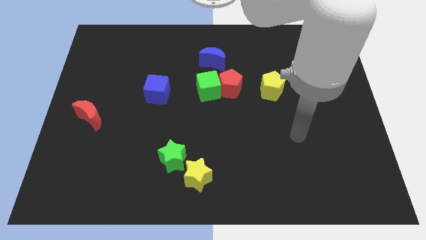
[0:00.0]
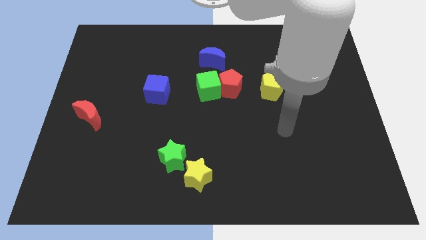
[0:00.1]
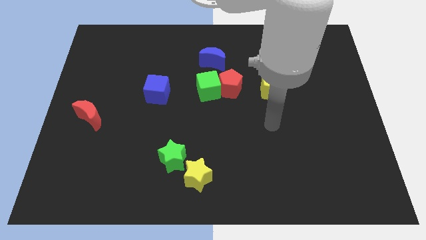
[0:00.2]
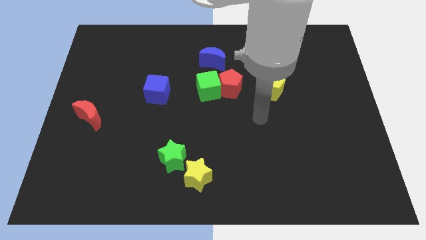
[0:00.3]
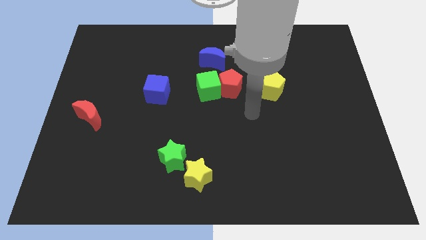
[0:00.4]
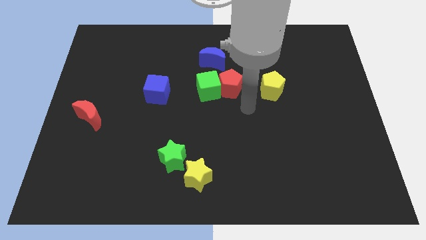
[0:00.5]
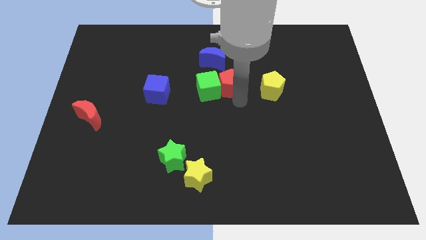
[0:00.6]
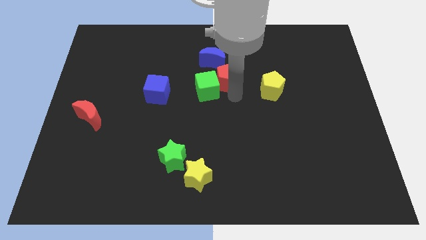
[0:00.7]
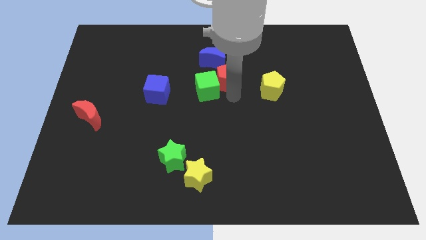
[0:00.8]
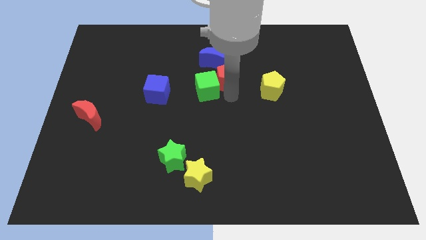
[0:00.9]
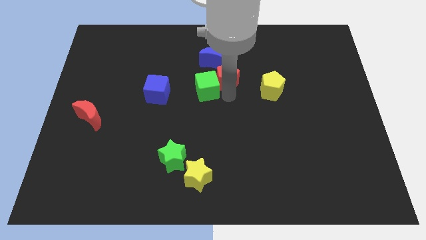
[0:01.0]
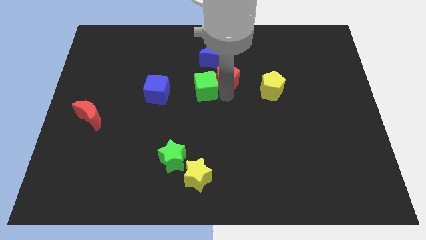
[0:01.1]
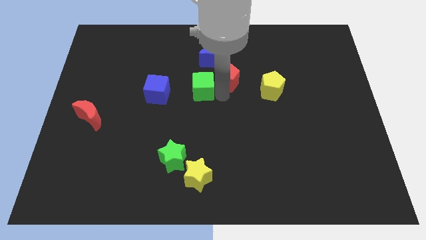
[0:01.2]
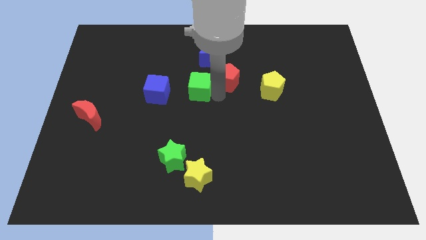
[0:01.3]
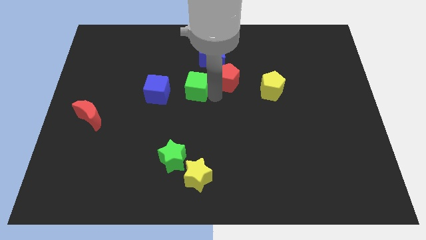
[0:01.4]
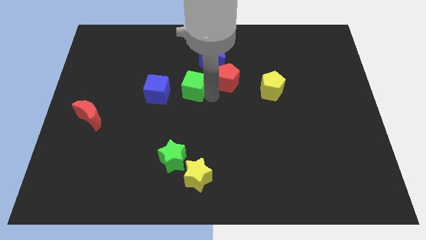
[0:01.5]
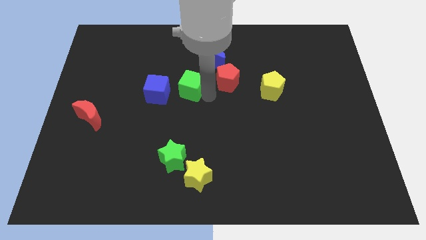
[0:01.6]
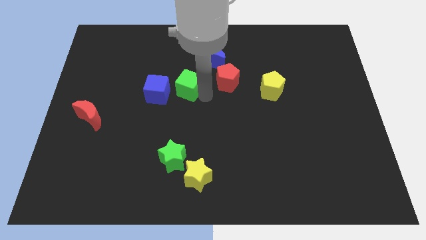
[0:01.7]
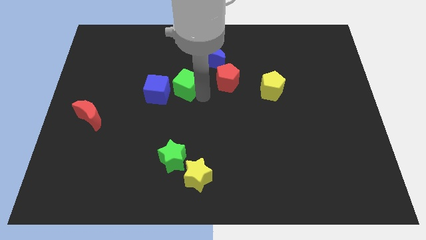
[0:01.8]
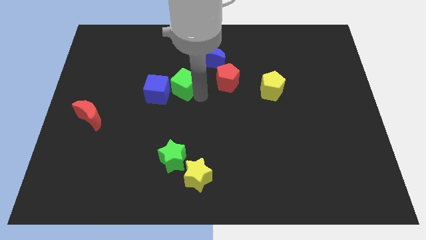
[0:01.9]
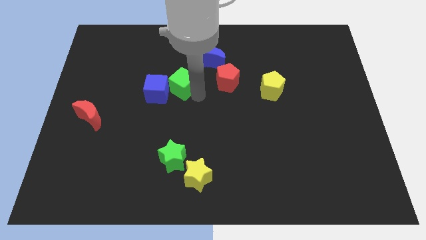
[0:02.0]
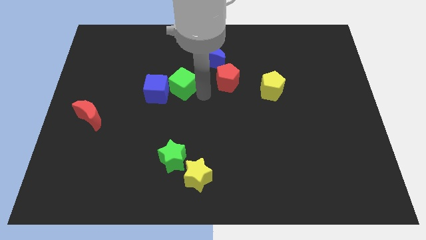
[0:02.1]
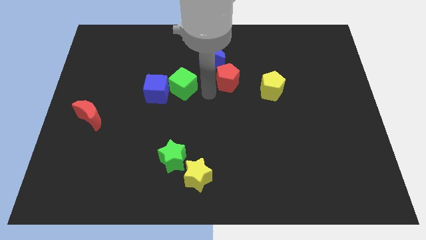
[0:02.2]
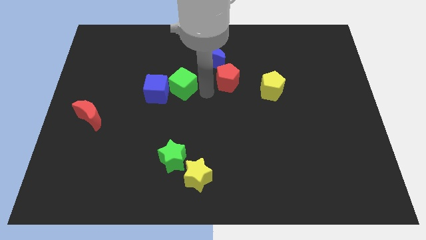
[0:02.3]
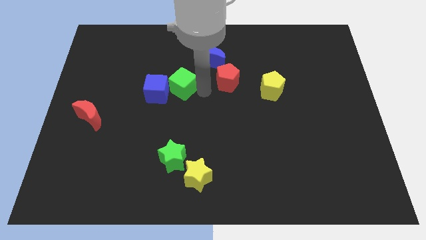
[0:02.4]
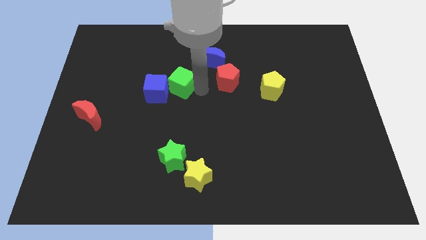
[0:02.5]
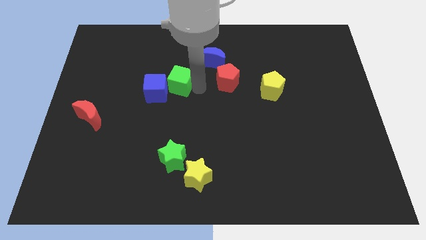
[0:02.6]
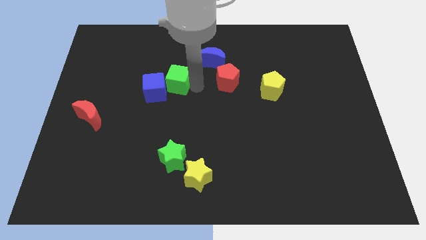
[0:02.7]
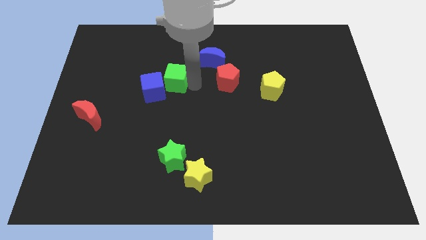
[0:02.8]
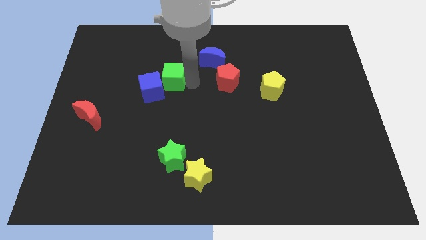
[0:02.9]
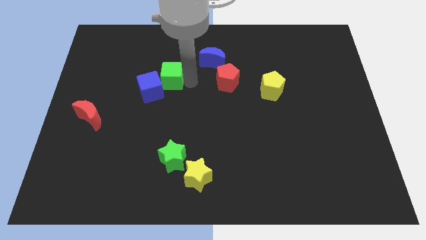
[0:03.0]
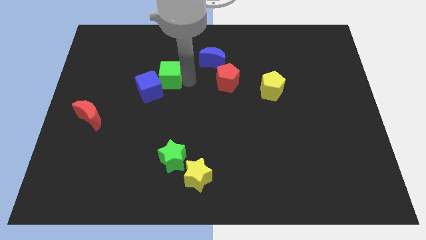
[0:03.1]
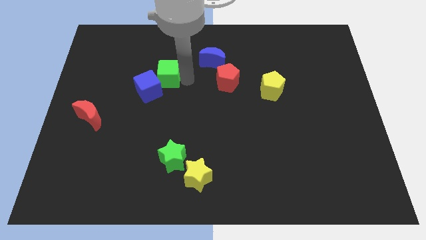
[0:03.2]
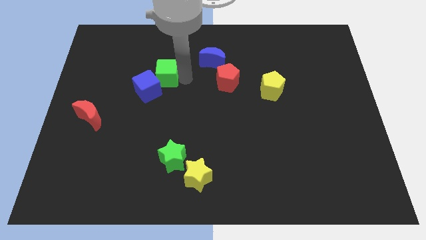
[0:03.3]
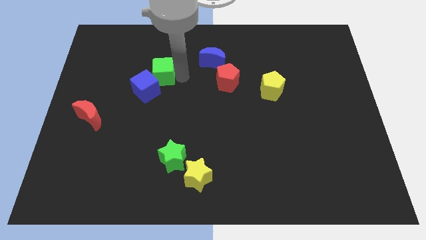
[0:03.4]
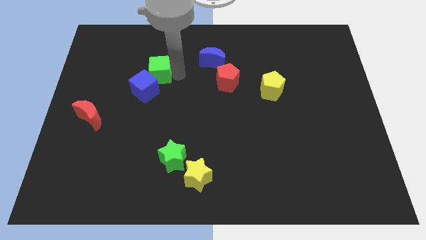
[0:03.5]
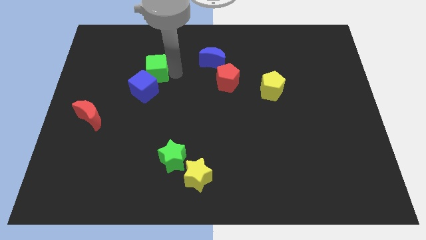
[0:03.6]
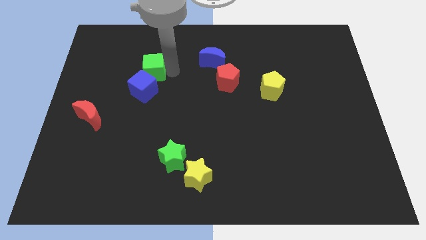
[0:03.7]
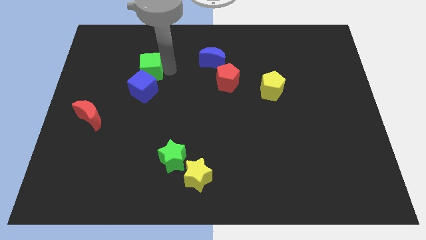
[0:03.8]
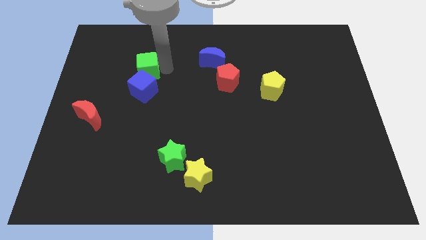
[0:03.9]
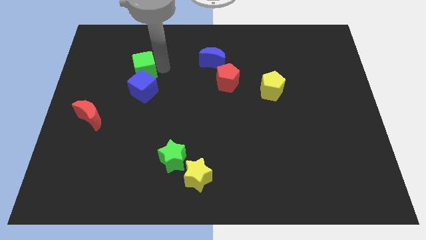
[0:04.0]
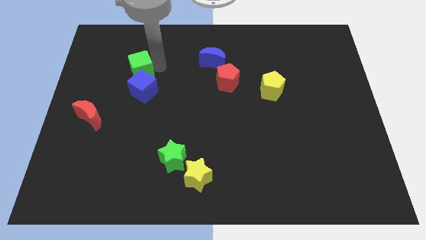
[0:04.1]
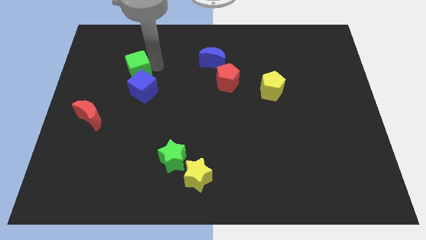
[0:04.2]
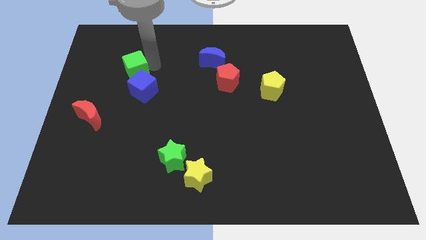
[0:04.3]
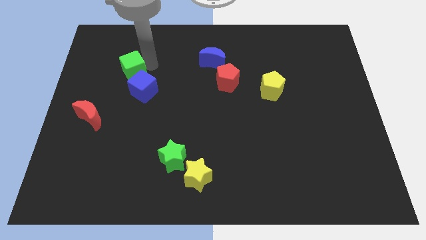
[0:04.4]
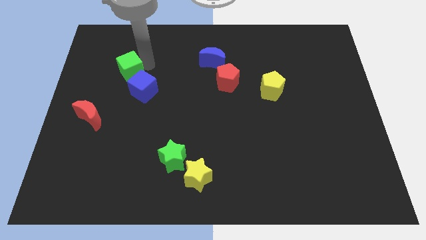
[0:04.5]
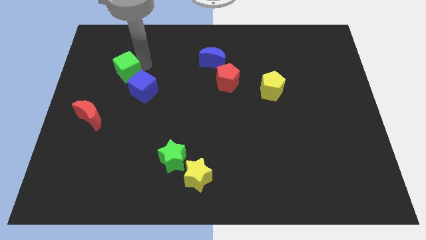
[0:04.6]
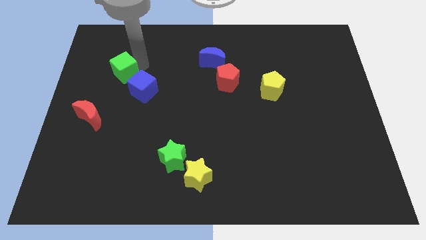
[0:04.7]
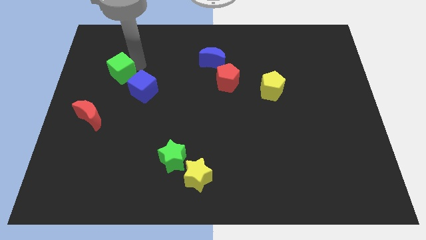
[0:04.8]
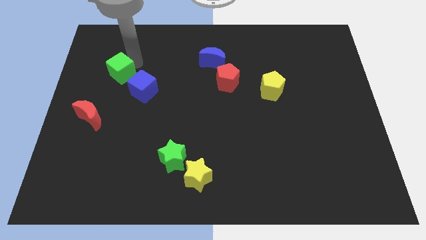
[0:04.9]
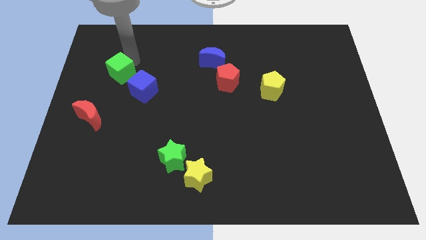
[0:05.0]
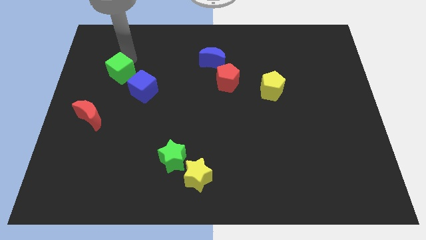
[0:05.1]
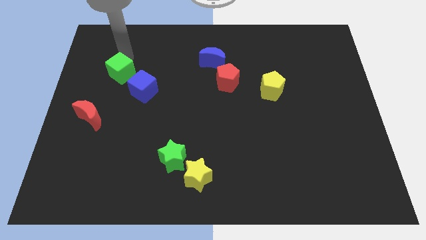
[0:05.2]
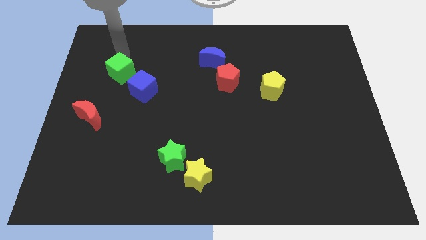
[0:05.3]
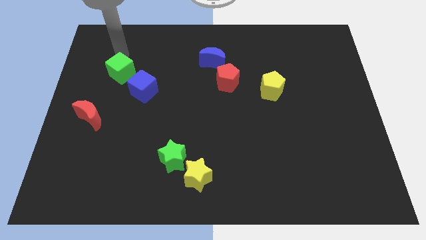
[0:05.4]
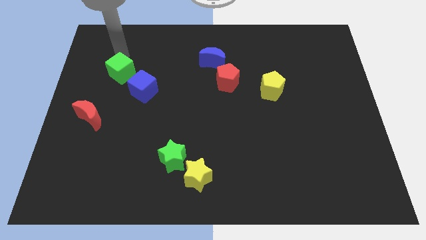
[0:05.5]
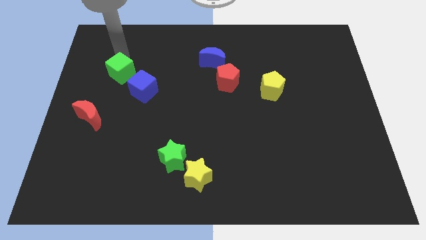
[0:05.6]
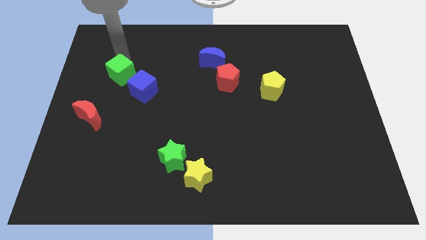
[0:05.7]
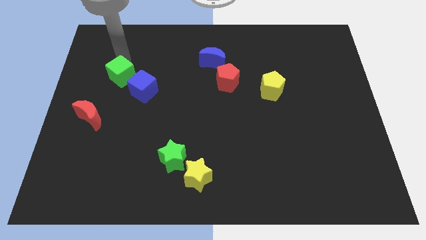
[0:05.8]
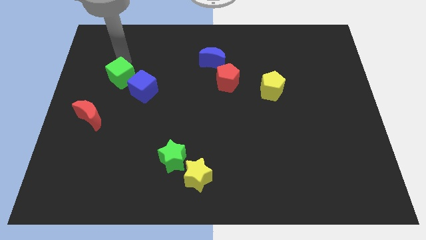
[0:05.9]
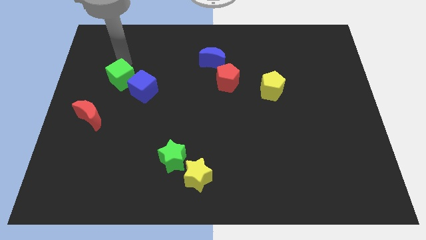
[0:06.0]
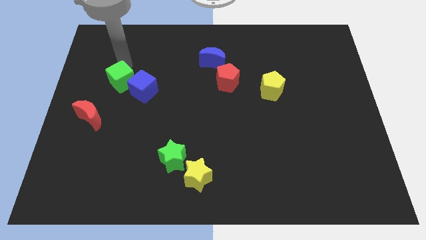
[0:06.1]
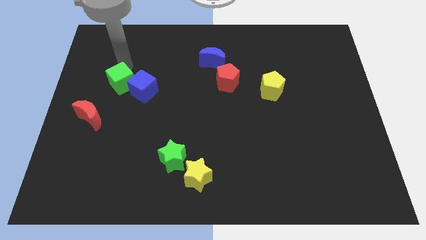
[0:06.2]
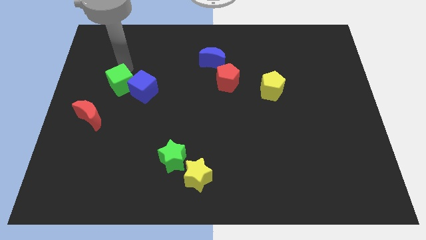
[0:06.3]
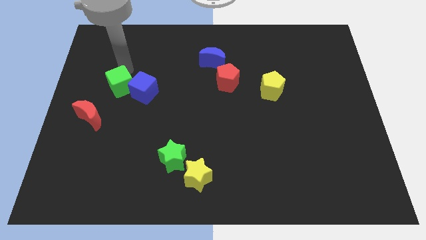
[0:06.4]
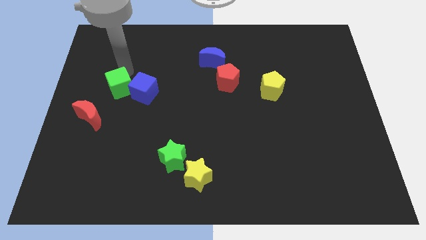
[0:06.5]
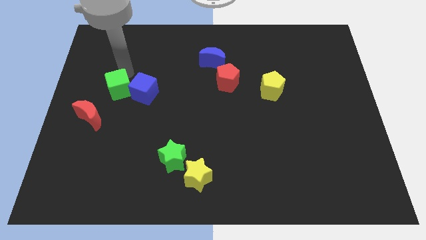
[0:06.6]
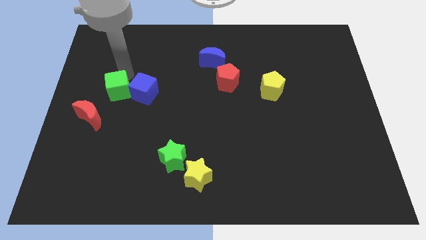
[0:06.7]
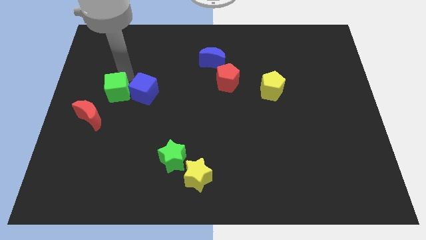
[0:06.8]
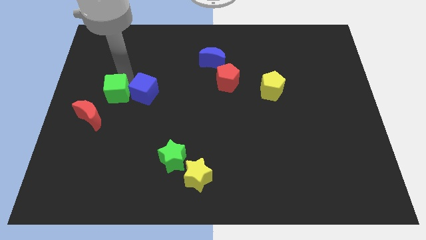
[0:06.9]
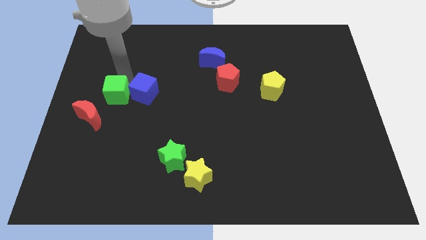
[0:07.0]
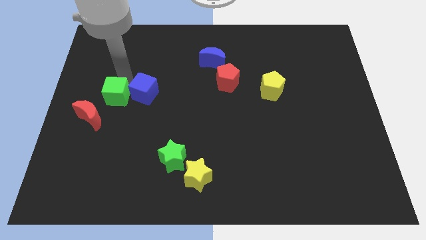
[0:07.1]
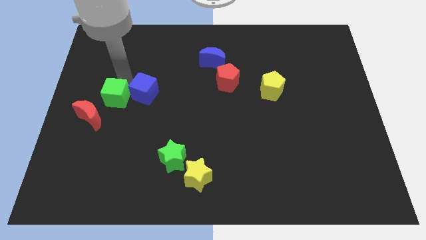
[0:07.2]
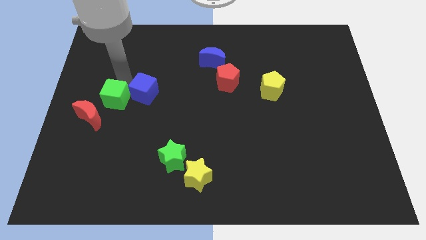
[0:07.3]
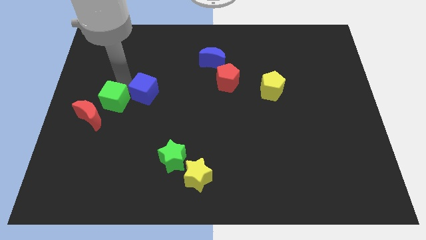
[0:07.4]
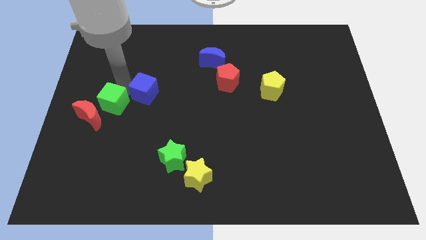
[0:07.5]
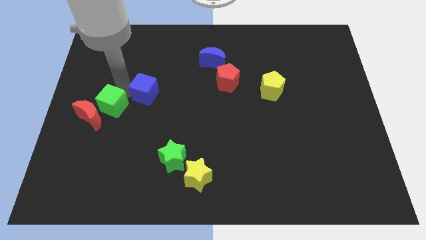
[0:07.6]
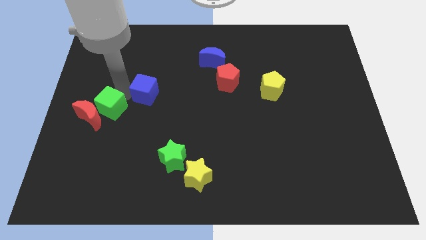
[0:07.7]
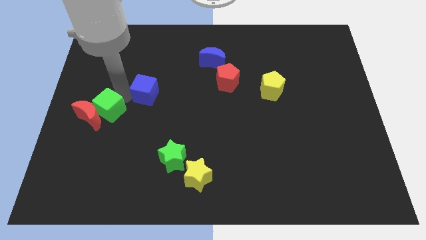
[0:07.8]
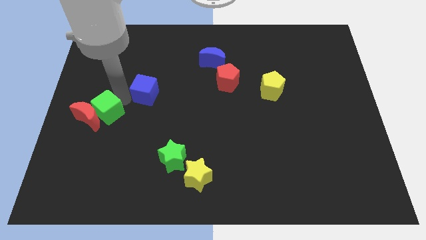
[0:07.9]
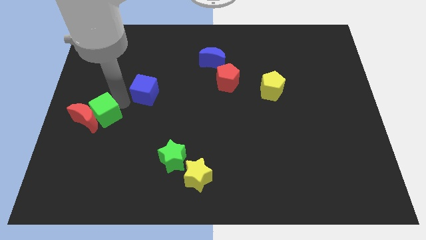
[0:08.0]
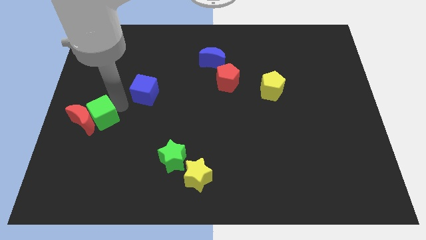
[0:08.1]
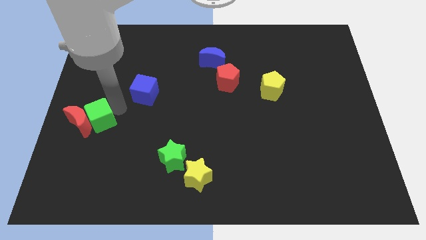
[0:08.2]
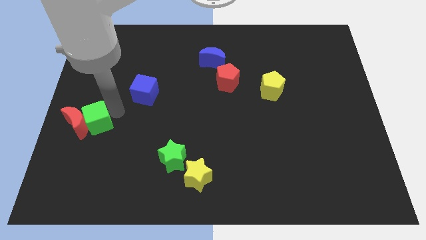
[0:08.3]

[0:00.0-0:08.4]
slide the green cube to the center left
